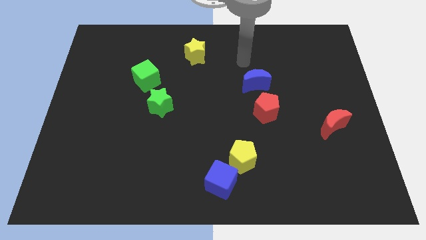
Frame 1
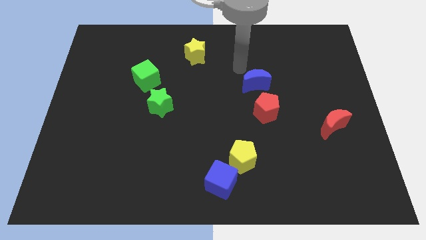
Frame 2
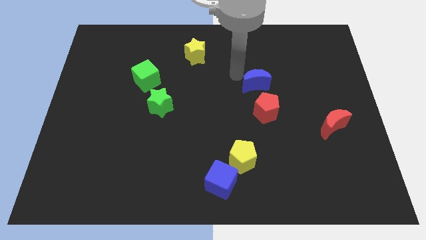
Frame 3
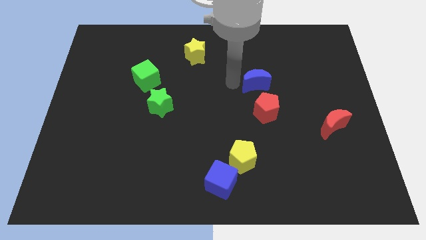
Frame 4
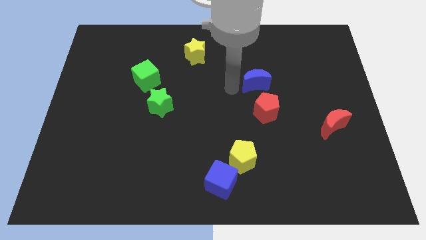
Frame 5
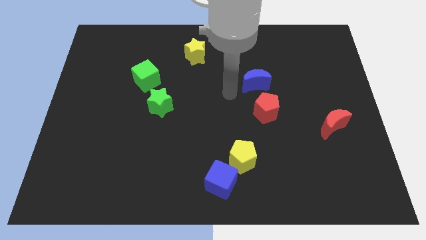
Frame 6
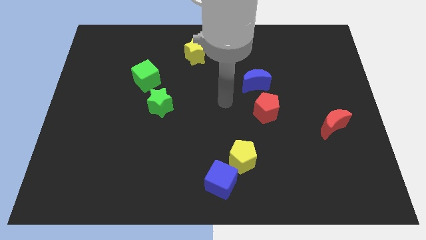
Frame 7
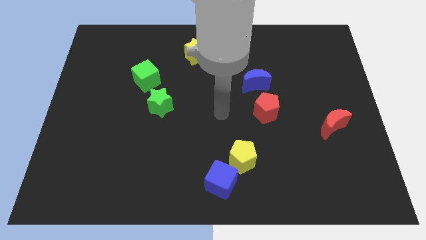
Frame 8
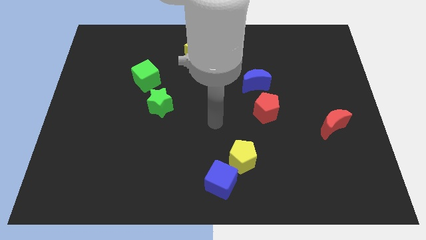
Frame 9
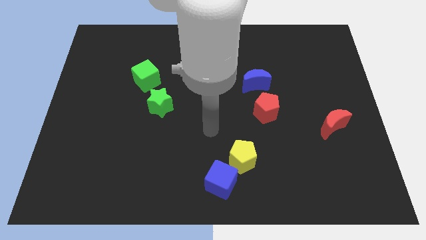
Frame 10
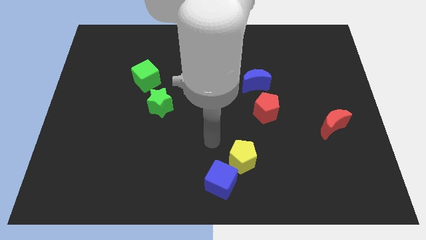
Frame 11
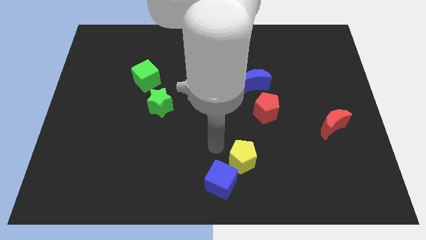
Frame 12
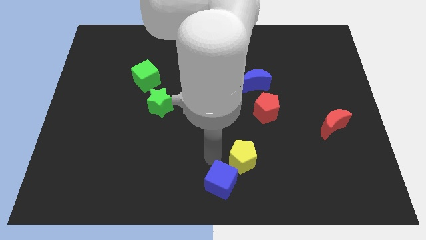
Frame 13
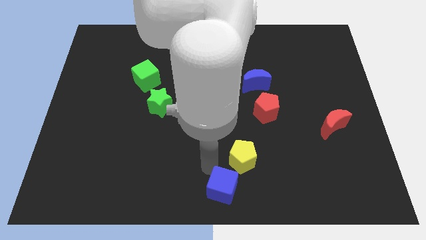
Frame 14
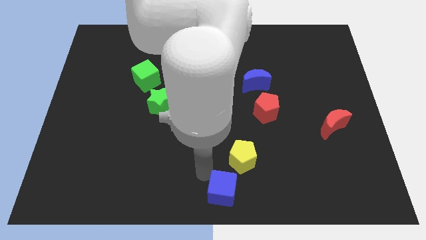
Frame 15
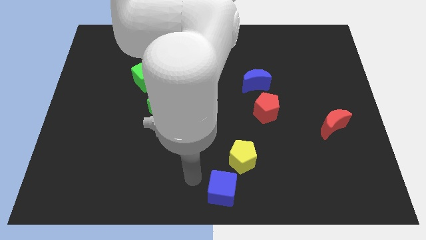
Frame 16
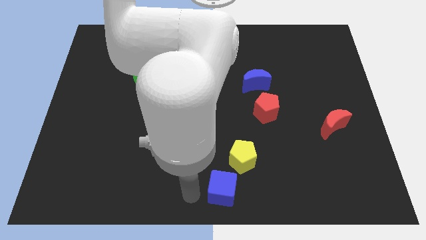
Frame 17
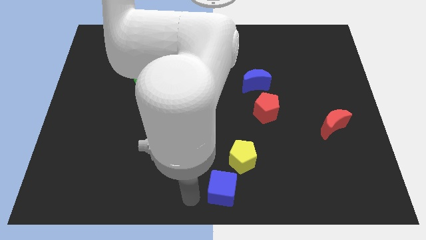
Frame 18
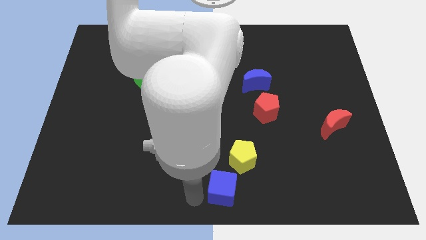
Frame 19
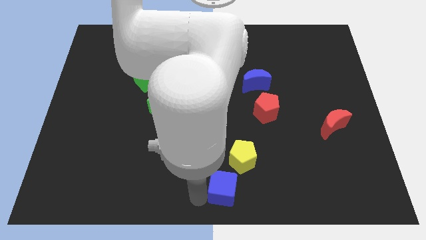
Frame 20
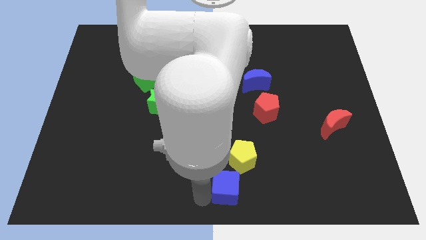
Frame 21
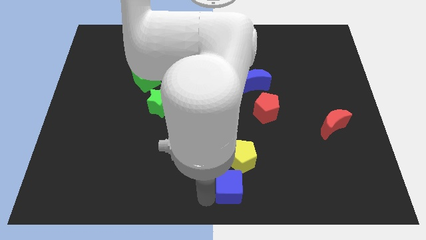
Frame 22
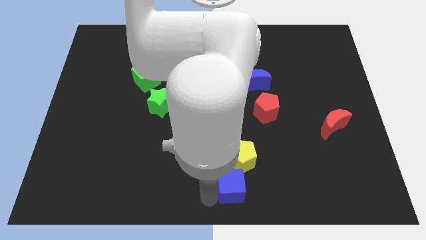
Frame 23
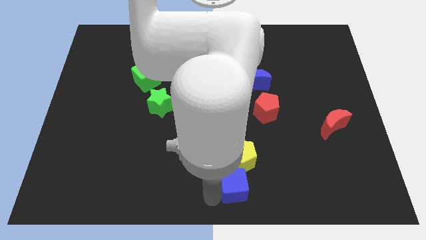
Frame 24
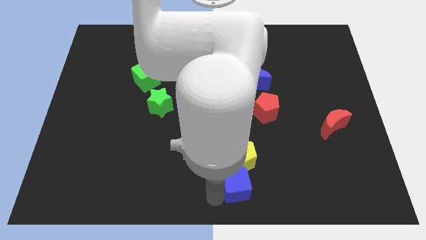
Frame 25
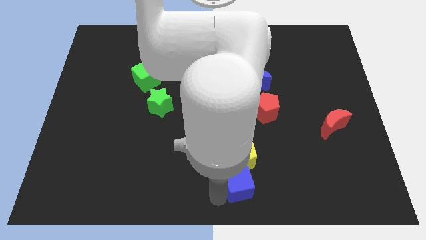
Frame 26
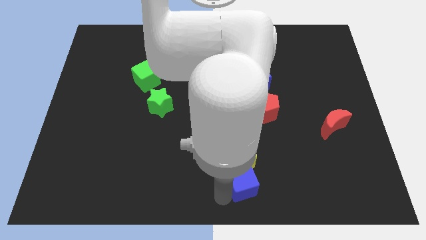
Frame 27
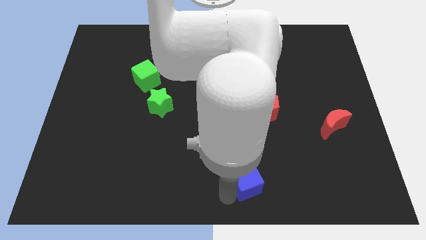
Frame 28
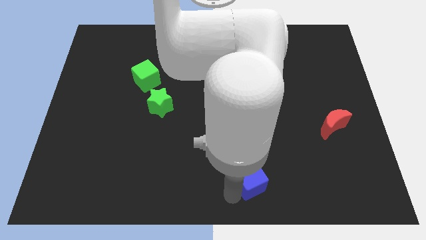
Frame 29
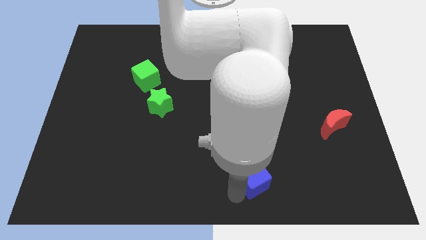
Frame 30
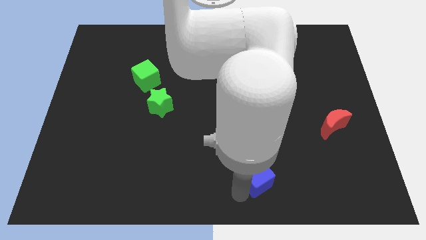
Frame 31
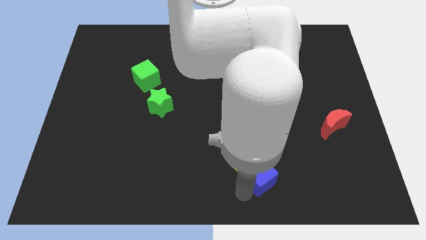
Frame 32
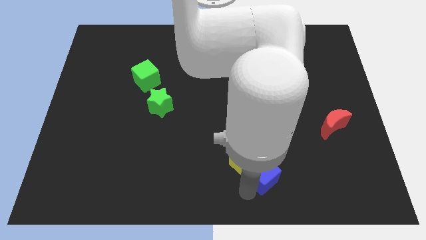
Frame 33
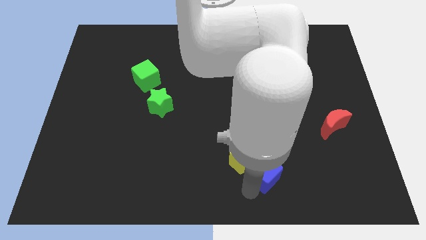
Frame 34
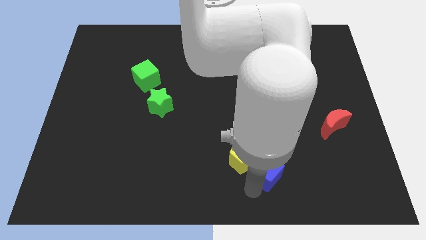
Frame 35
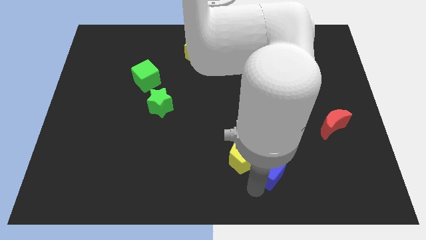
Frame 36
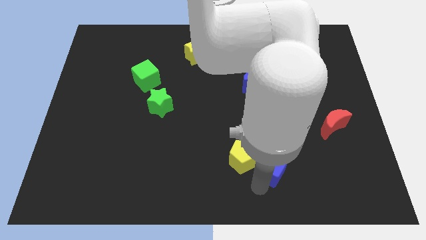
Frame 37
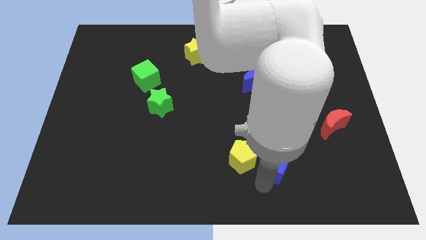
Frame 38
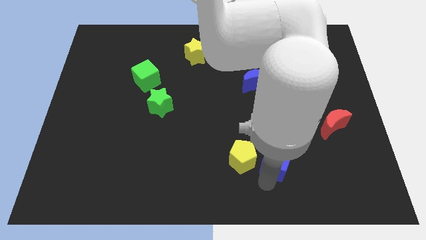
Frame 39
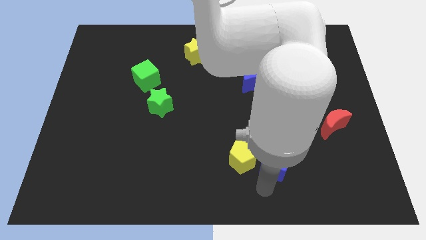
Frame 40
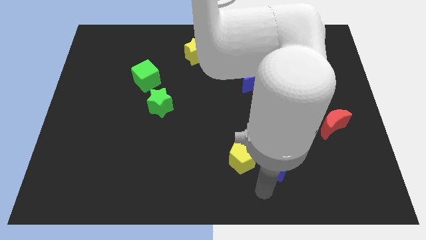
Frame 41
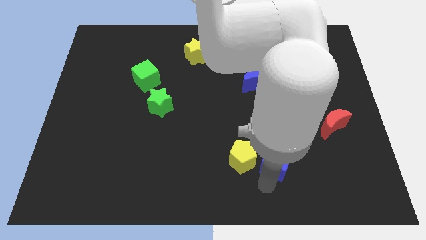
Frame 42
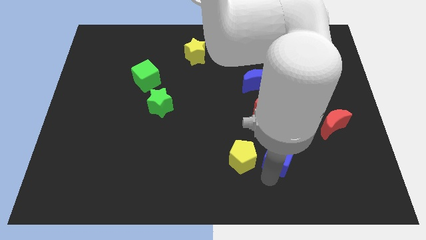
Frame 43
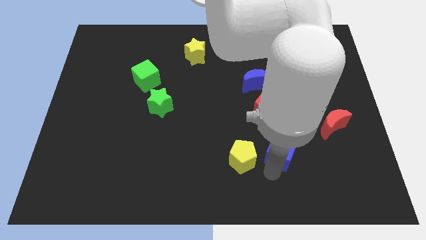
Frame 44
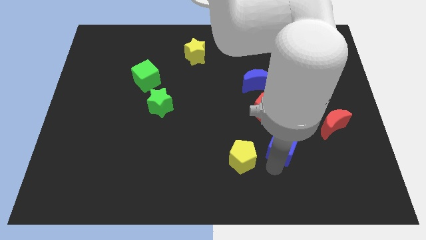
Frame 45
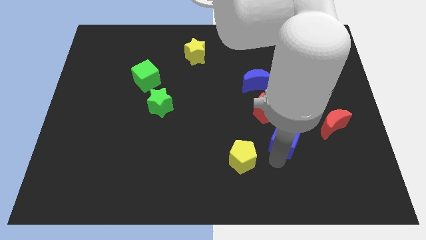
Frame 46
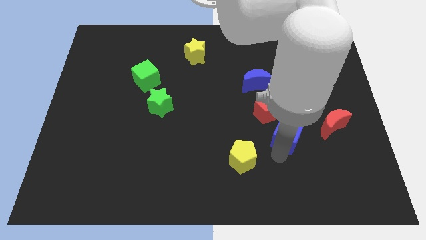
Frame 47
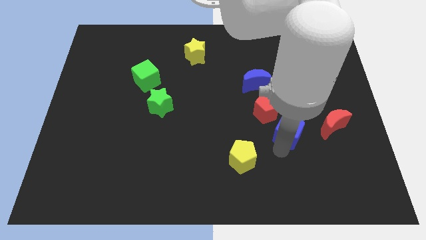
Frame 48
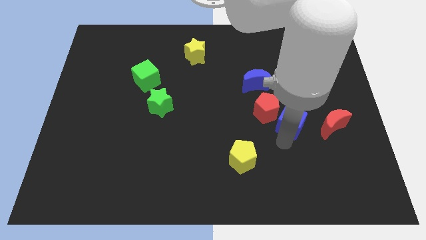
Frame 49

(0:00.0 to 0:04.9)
slide the blue cube up and right diagonally

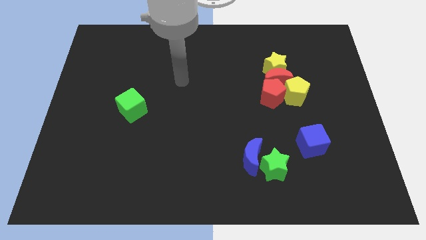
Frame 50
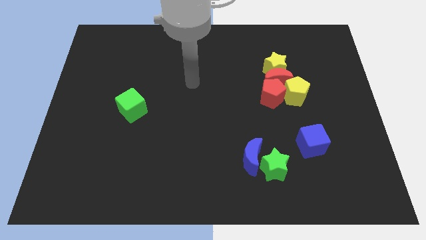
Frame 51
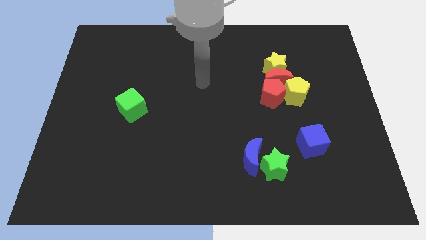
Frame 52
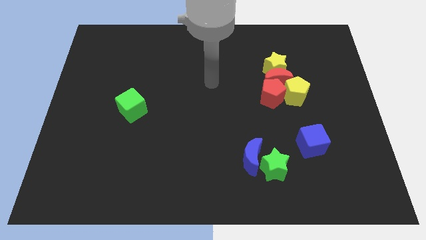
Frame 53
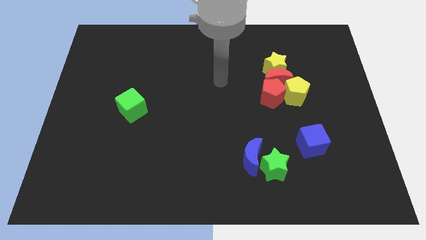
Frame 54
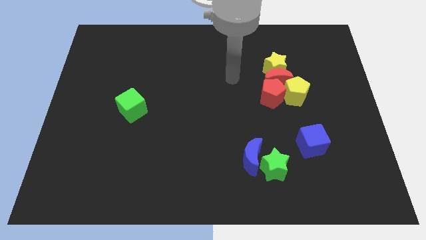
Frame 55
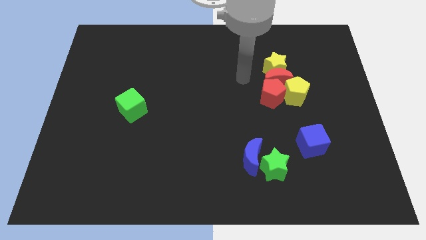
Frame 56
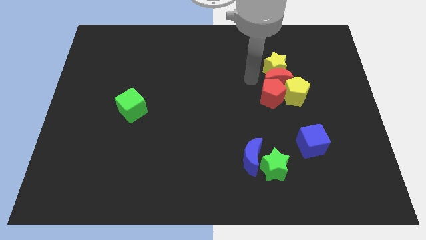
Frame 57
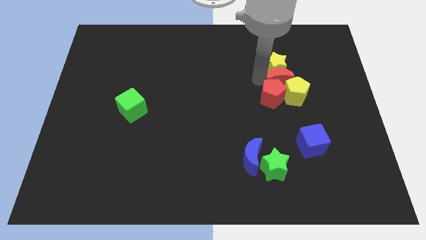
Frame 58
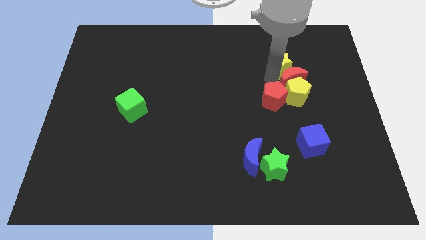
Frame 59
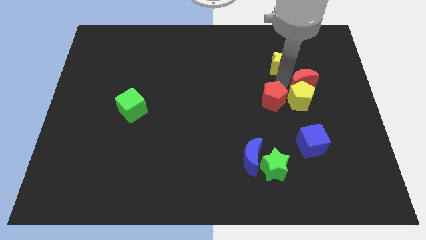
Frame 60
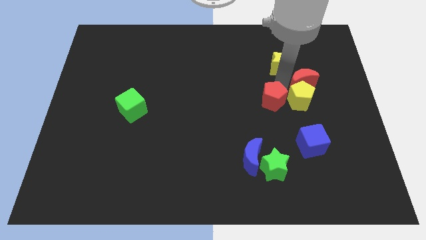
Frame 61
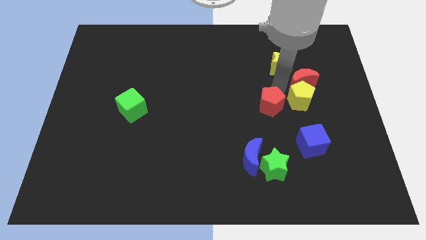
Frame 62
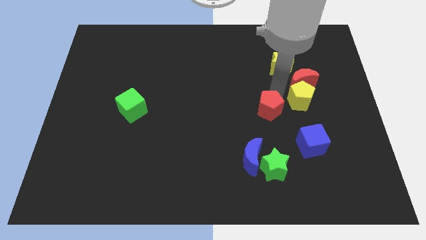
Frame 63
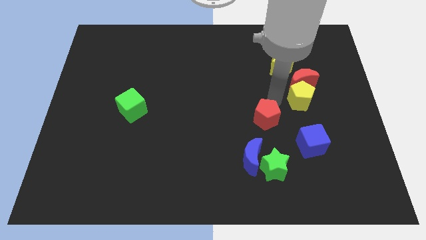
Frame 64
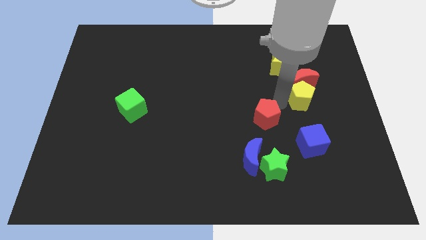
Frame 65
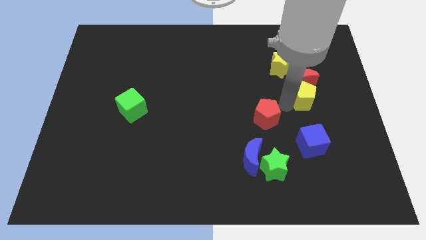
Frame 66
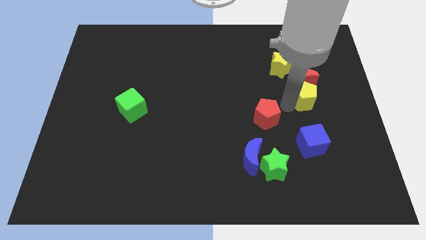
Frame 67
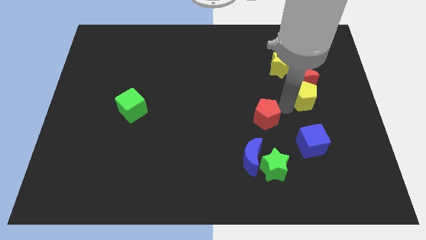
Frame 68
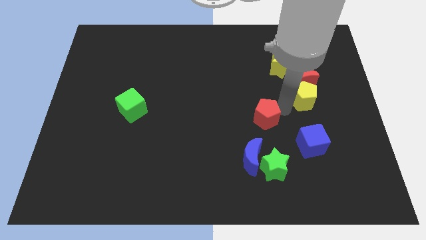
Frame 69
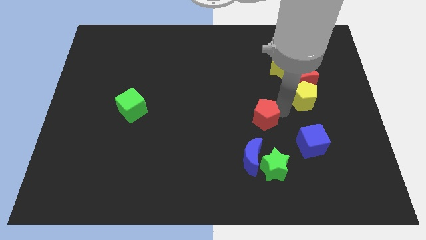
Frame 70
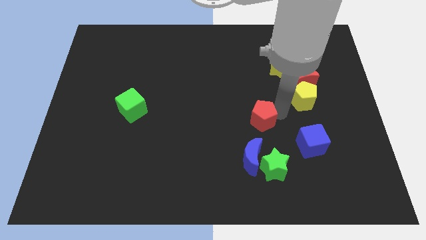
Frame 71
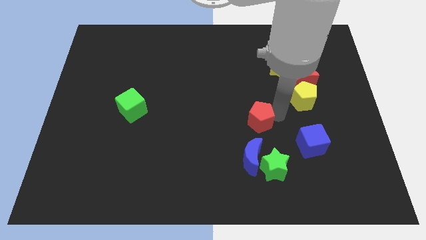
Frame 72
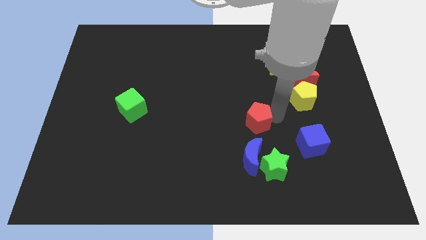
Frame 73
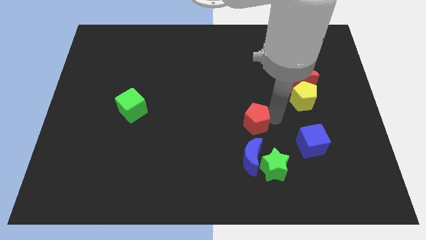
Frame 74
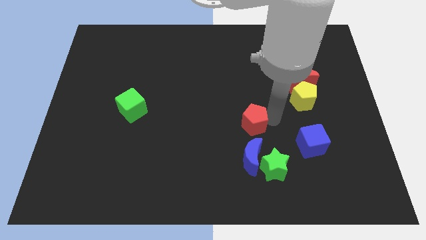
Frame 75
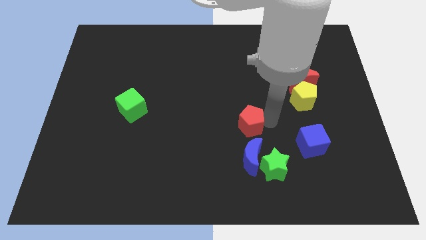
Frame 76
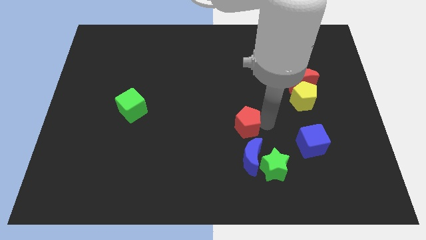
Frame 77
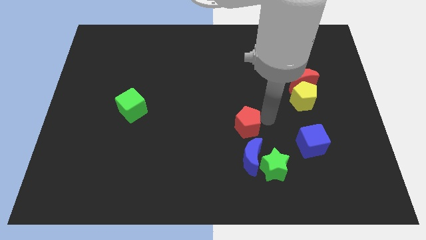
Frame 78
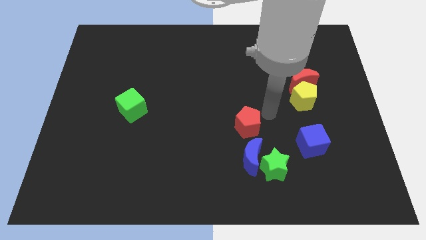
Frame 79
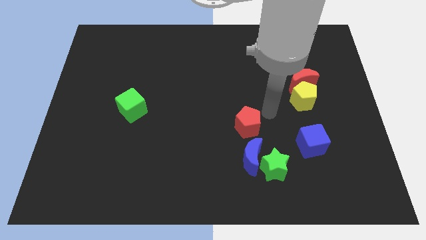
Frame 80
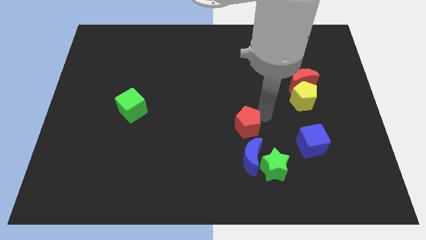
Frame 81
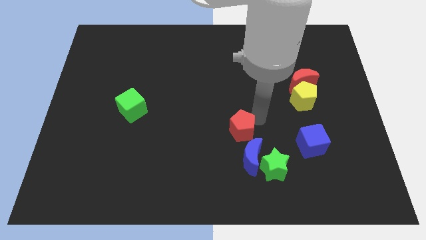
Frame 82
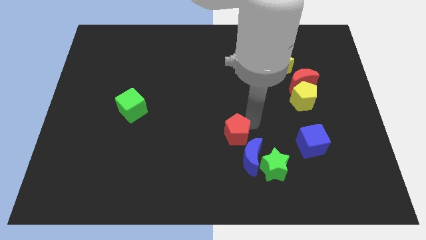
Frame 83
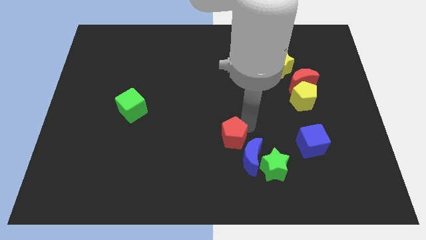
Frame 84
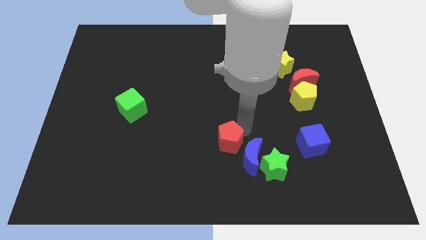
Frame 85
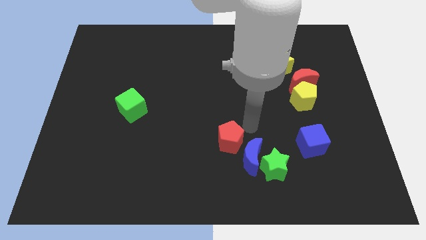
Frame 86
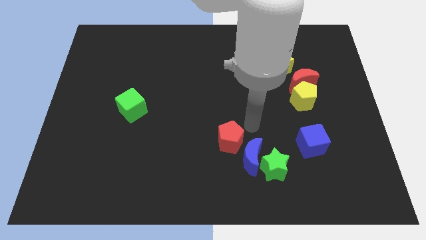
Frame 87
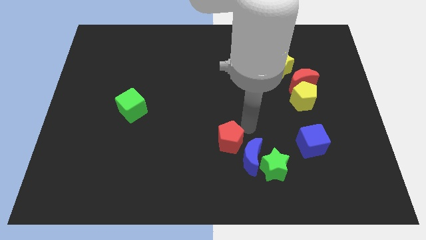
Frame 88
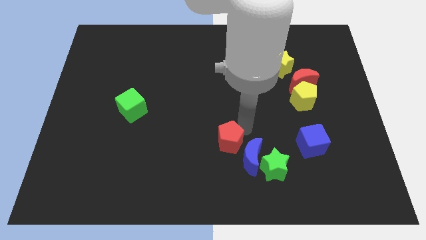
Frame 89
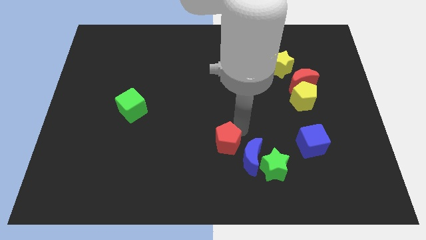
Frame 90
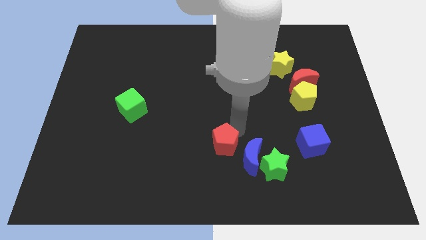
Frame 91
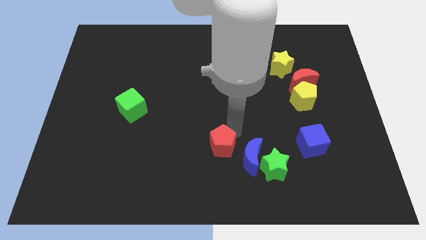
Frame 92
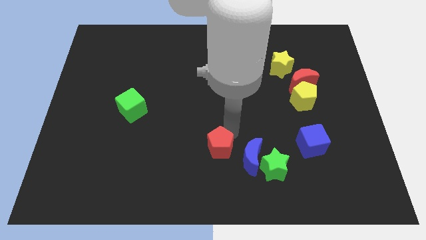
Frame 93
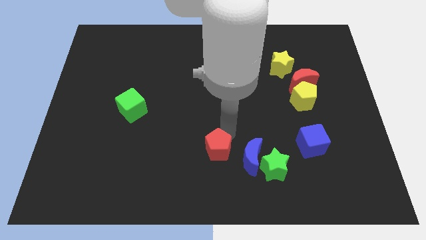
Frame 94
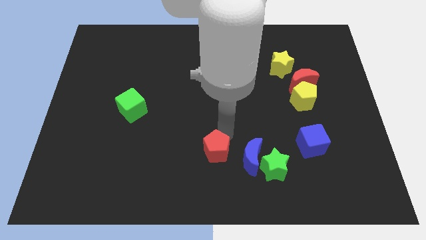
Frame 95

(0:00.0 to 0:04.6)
push the red pentagon down and to the left diagonally
